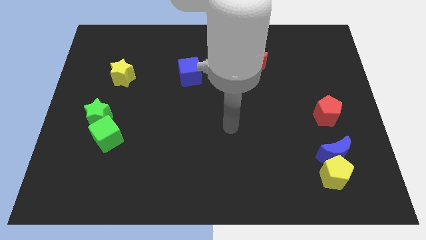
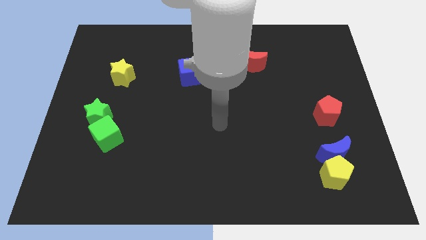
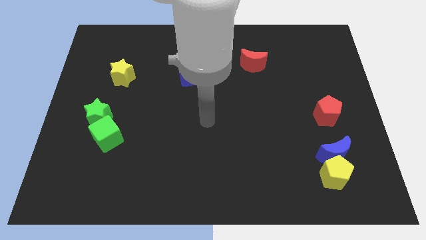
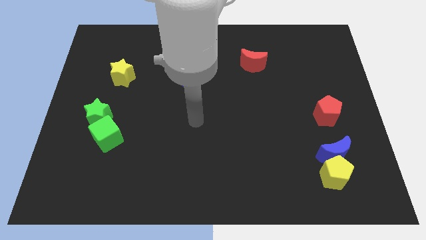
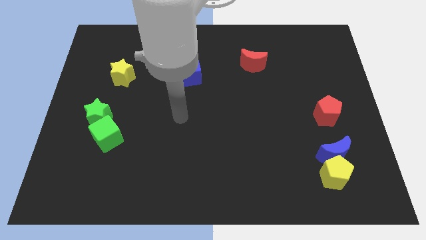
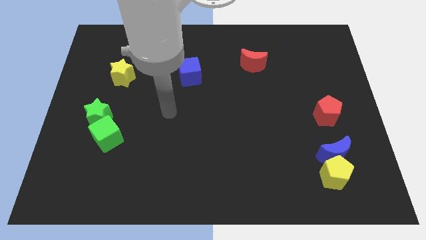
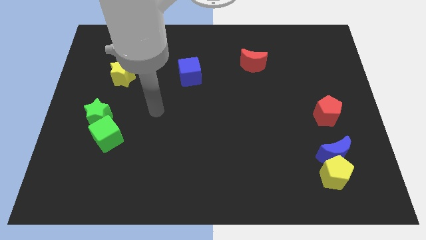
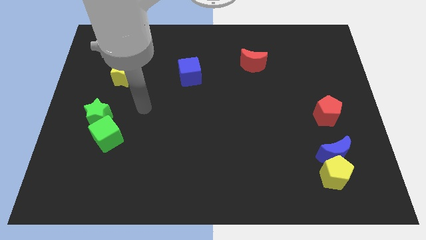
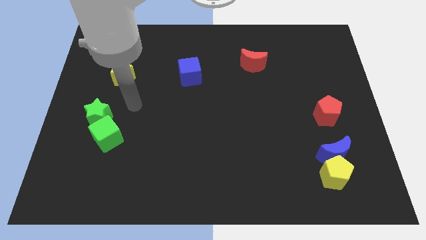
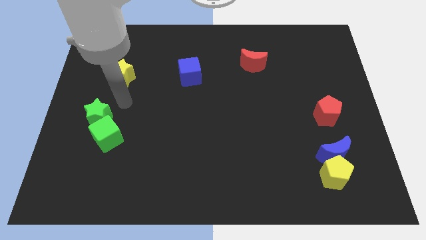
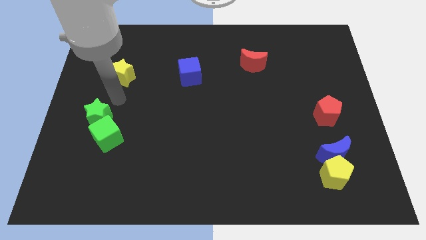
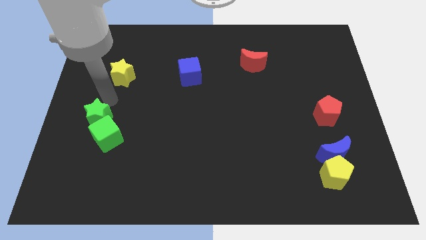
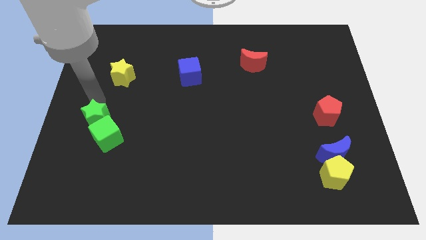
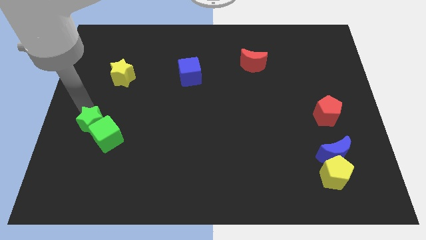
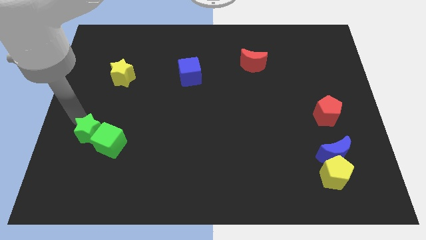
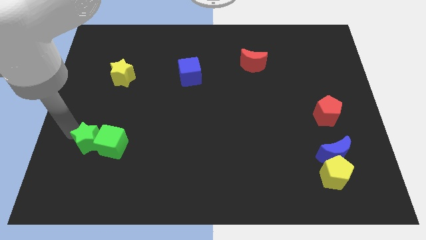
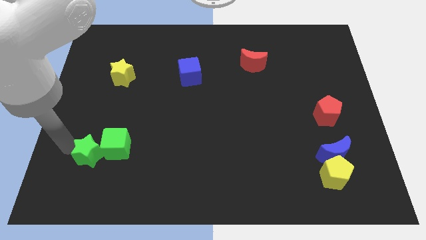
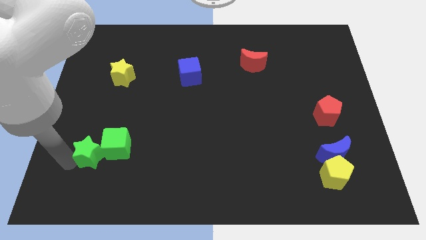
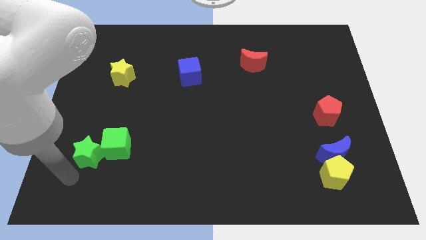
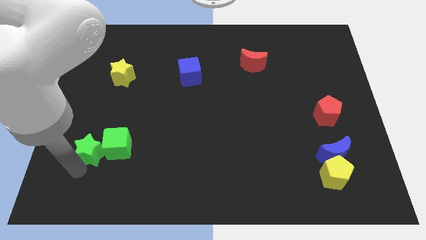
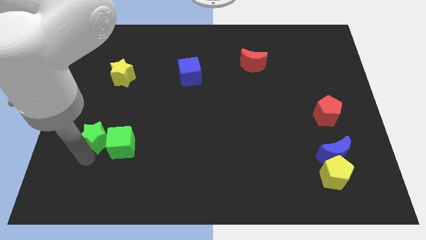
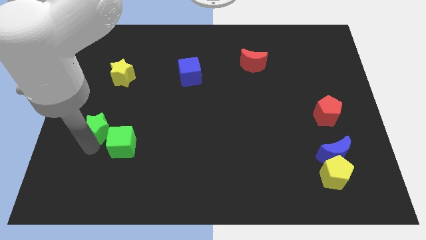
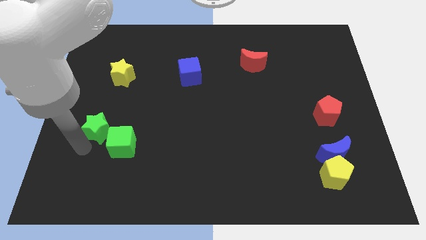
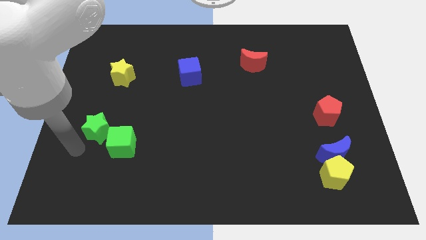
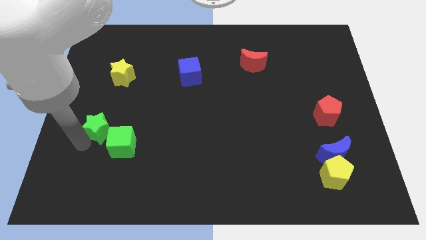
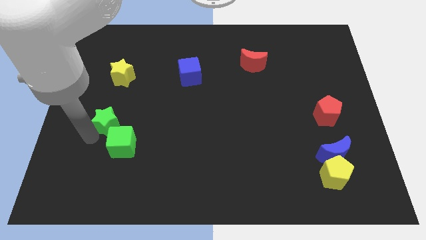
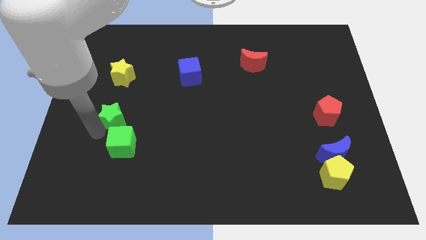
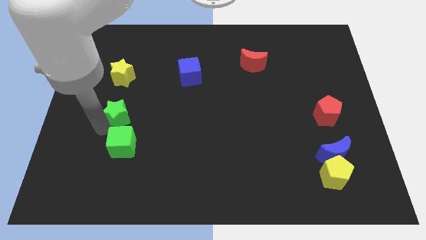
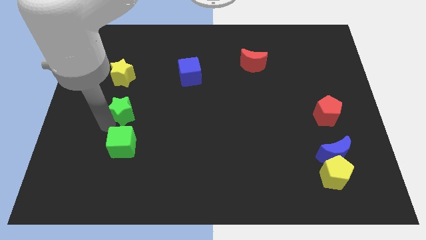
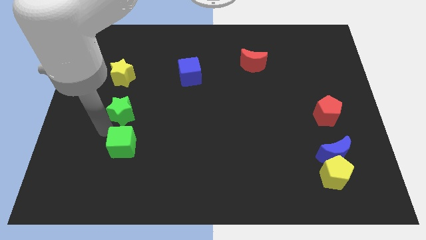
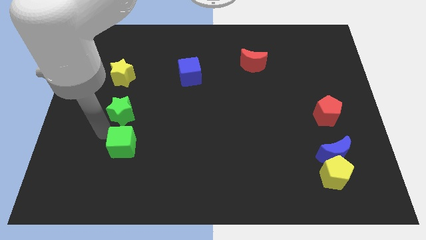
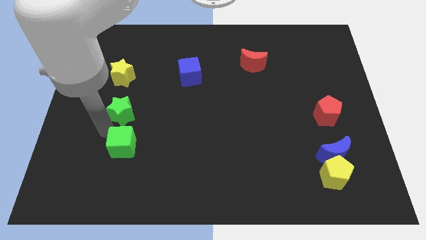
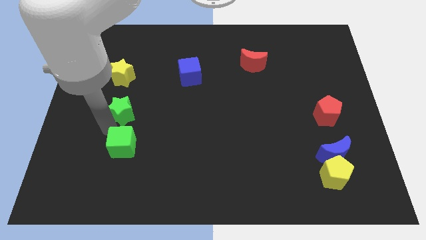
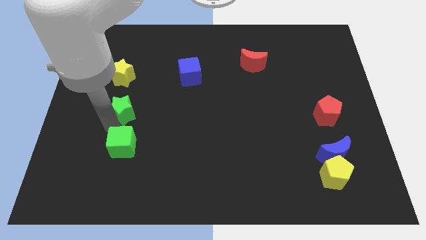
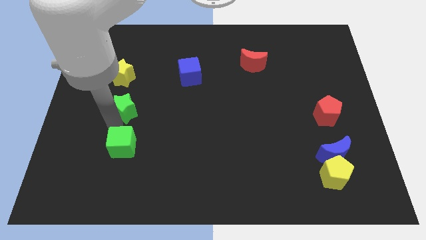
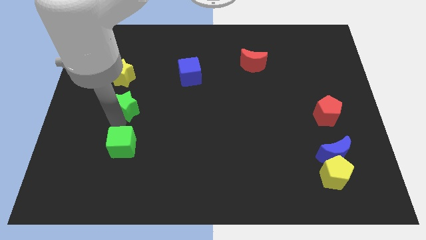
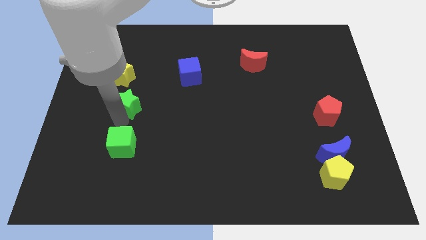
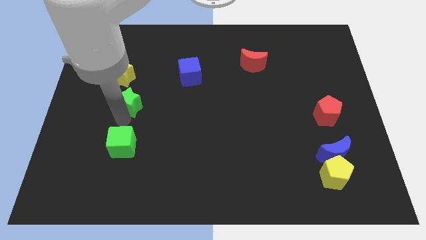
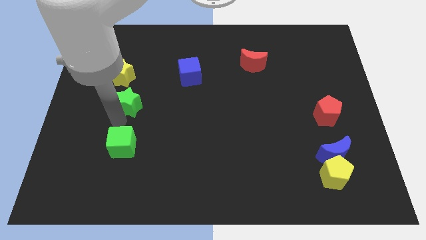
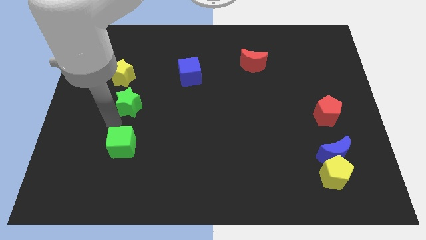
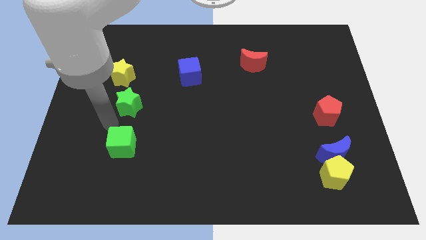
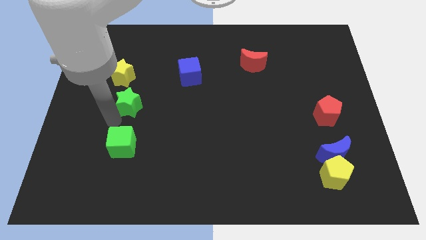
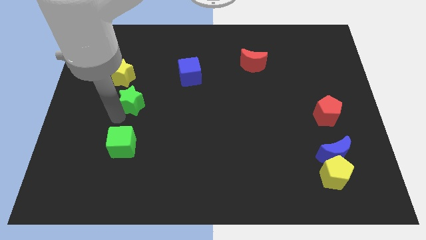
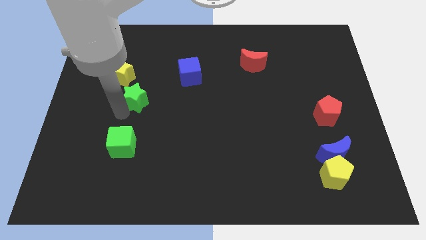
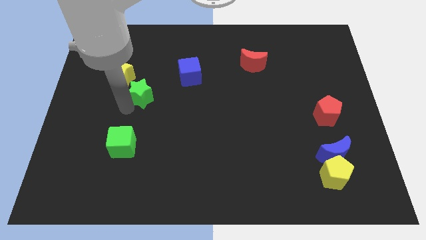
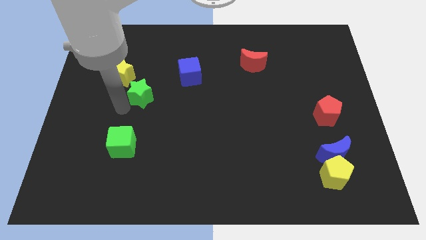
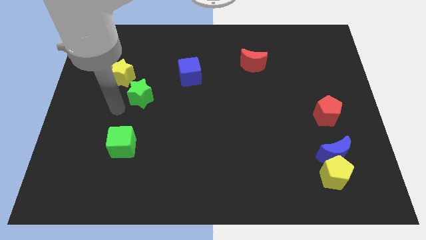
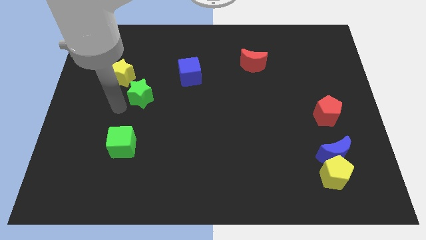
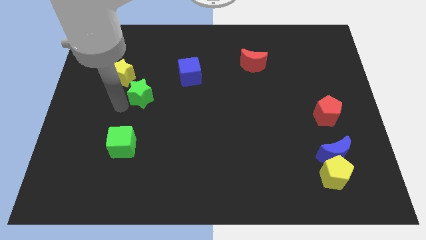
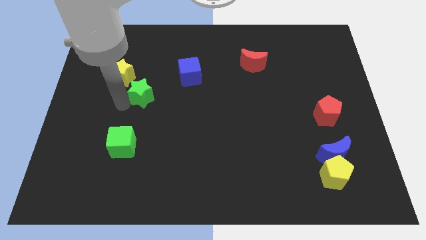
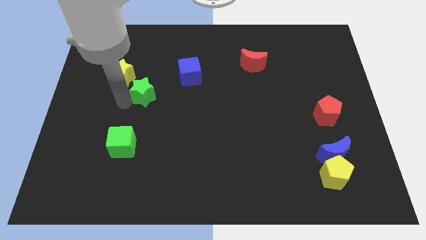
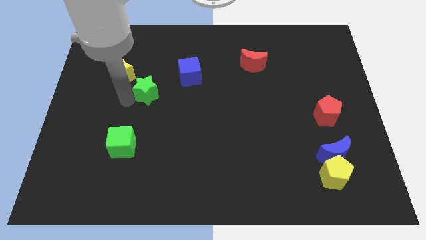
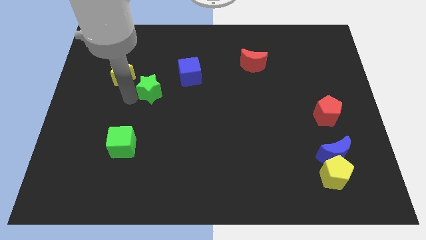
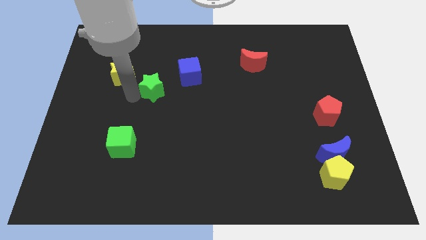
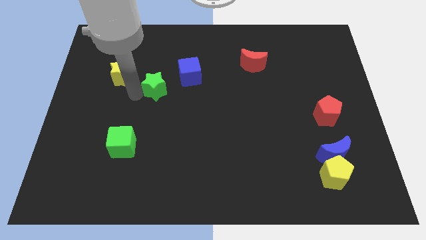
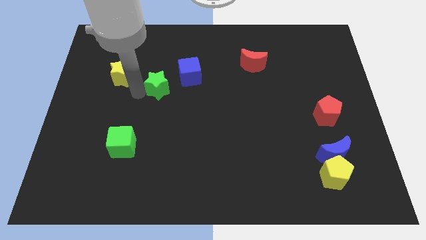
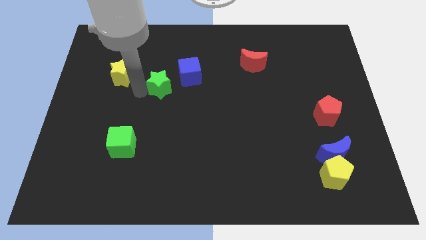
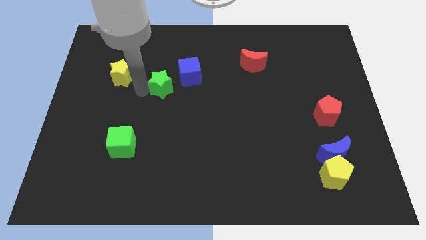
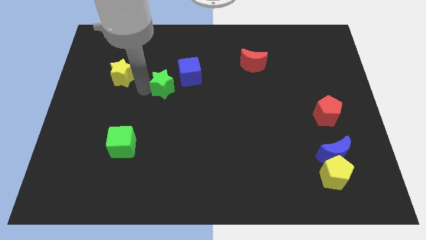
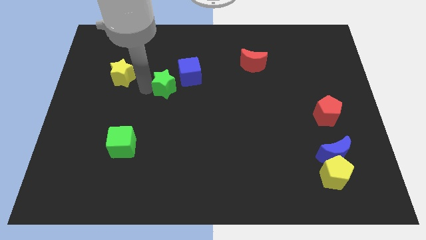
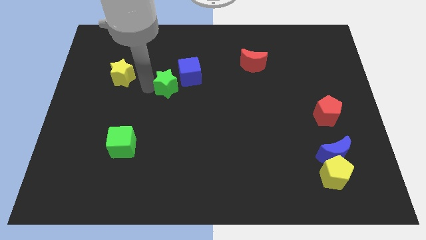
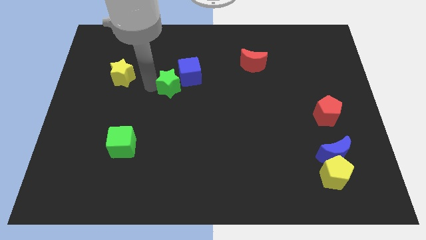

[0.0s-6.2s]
put the green star close to the blue cube

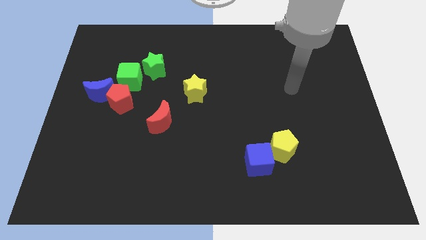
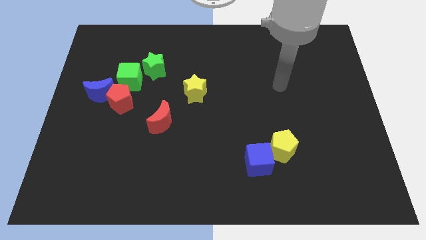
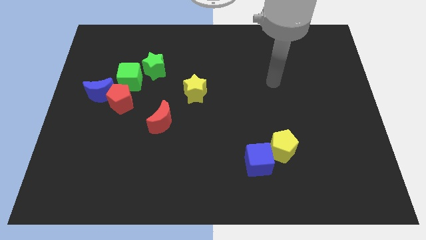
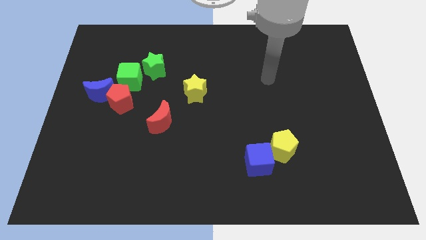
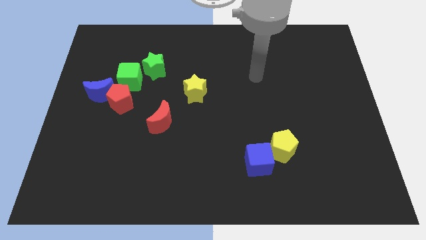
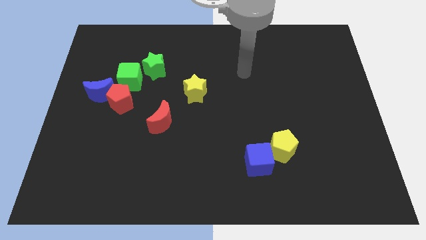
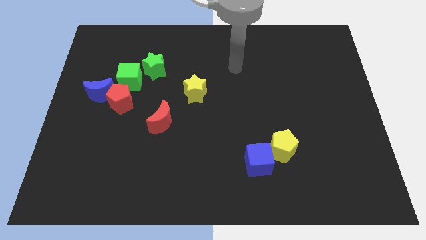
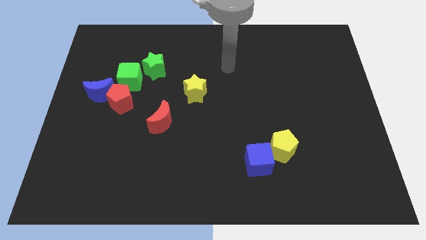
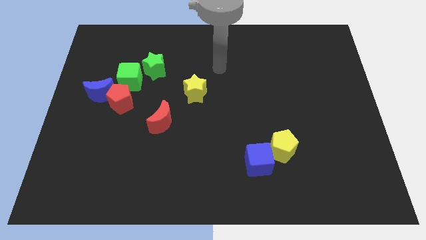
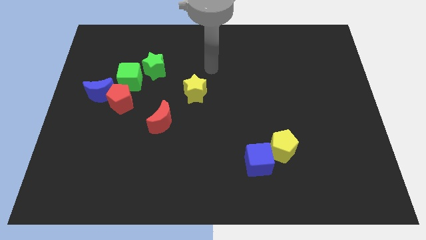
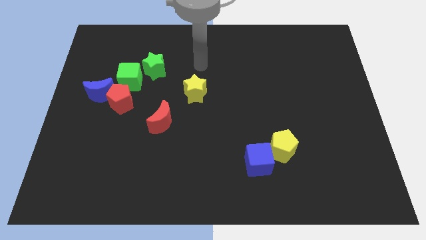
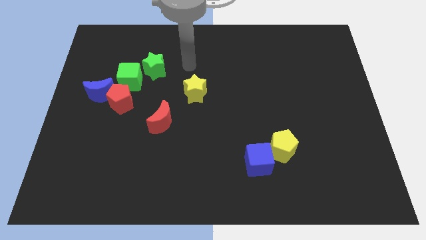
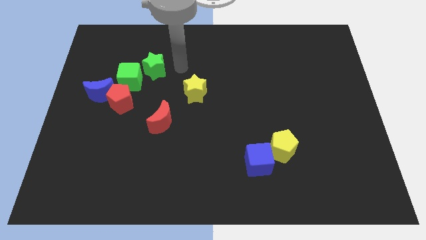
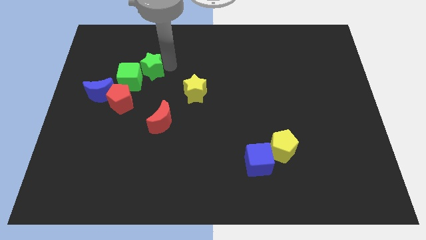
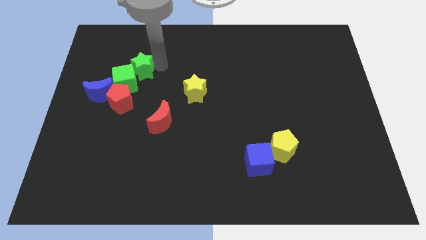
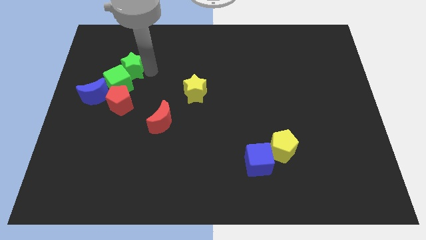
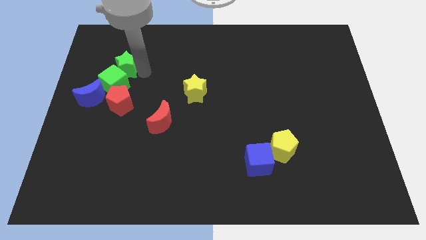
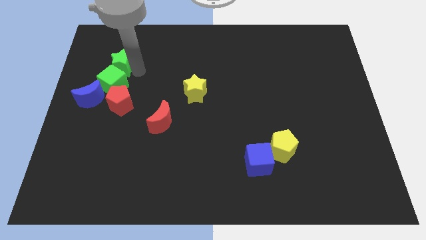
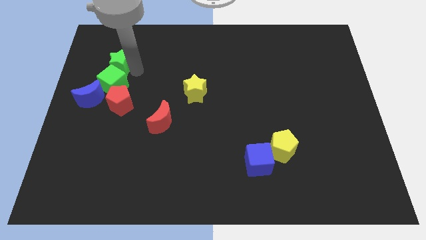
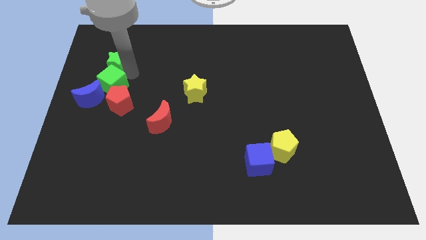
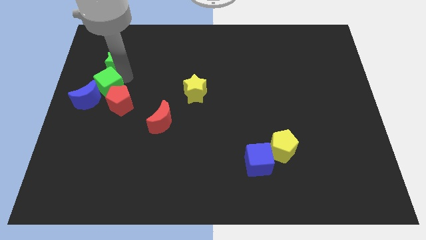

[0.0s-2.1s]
push the green cube towards the blue moon
